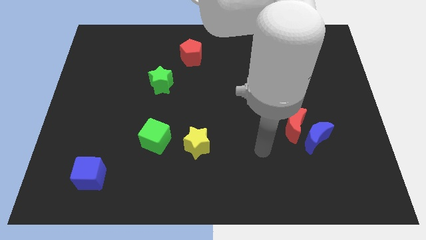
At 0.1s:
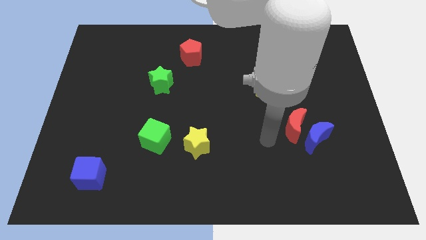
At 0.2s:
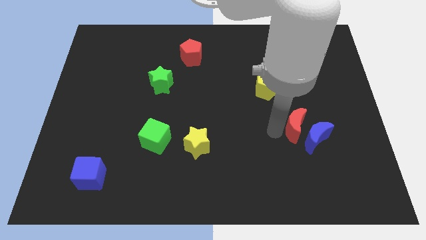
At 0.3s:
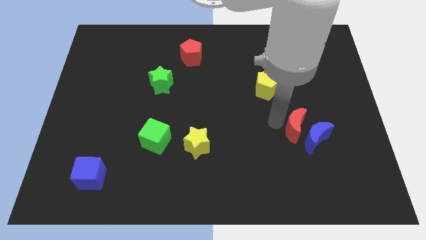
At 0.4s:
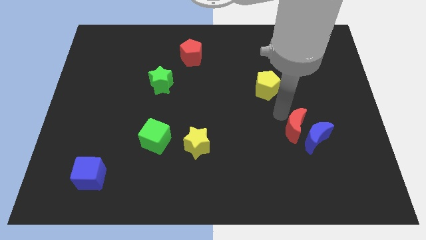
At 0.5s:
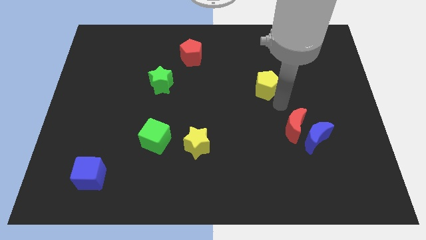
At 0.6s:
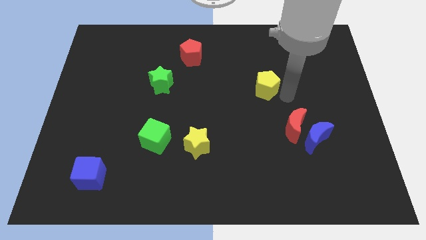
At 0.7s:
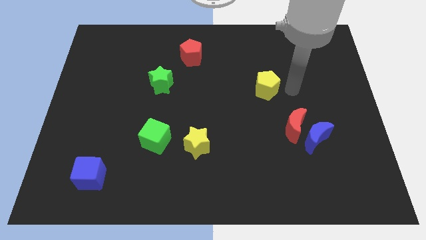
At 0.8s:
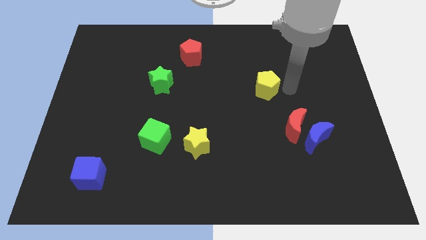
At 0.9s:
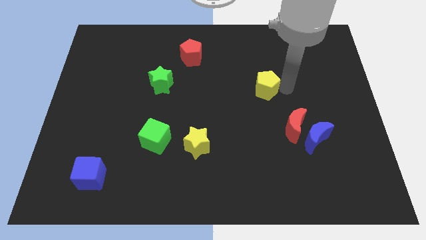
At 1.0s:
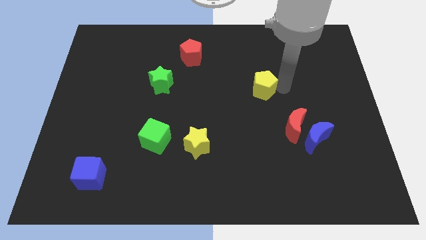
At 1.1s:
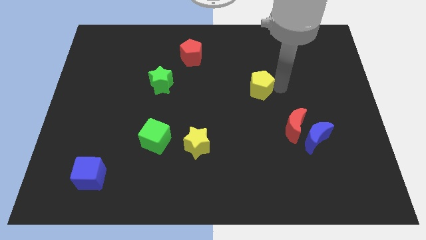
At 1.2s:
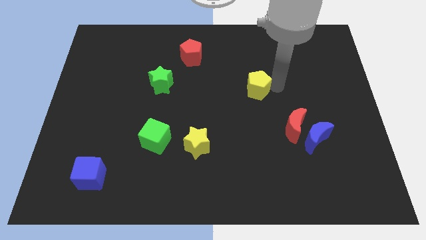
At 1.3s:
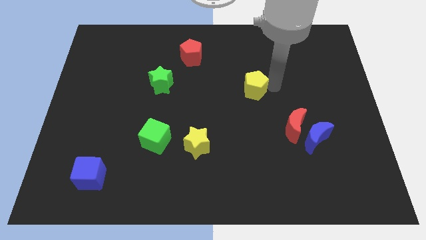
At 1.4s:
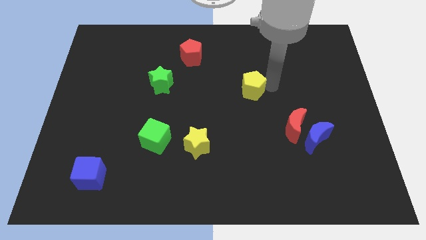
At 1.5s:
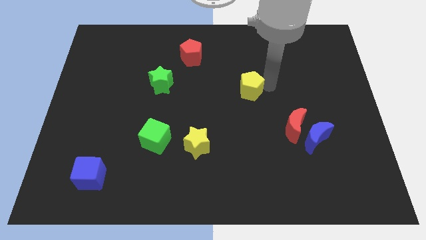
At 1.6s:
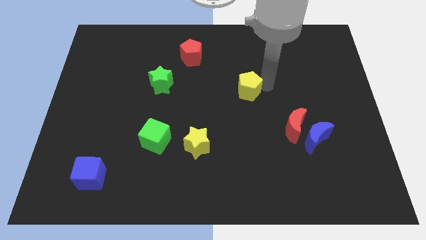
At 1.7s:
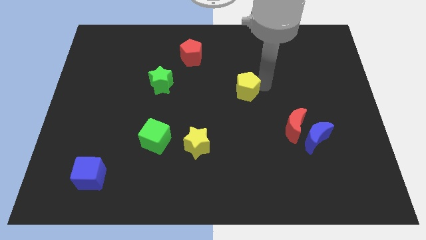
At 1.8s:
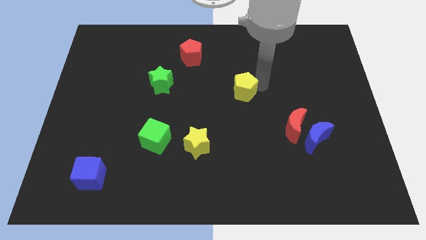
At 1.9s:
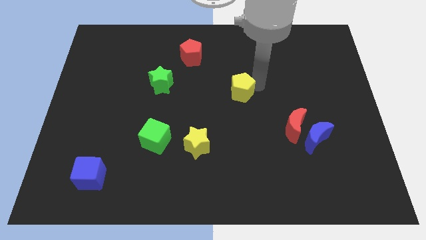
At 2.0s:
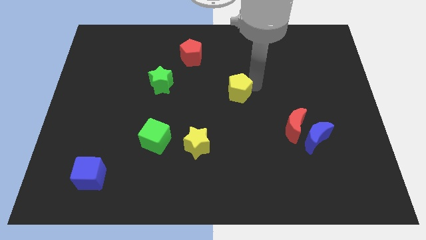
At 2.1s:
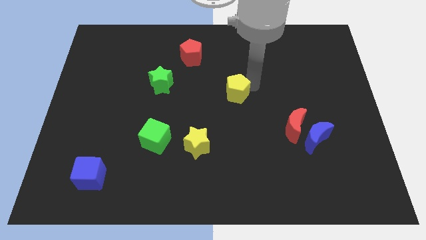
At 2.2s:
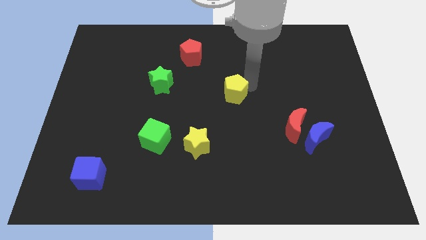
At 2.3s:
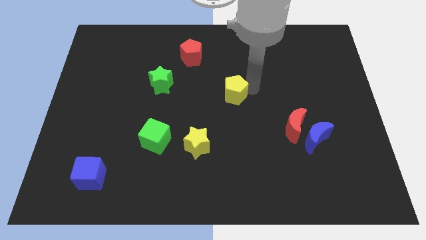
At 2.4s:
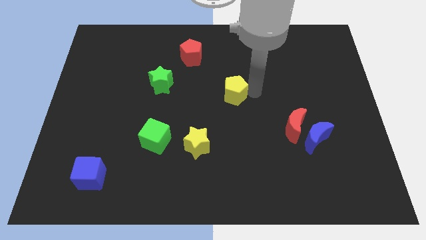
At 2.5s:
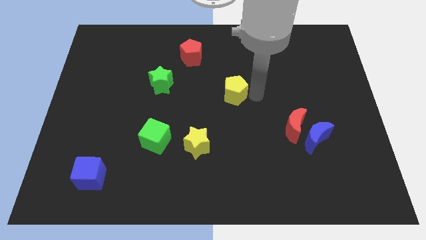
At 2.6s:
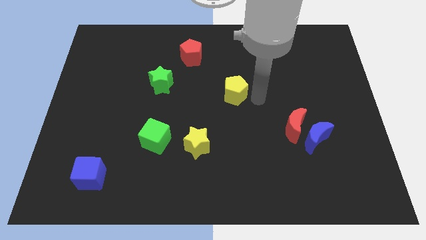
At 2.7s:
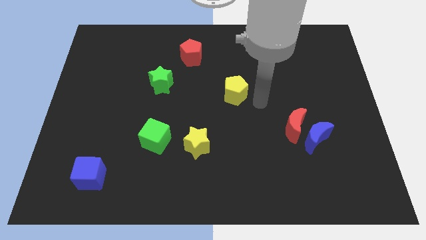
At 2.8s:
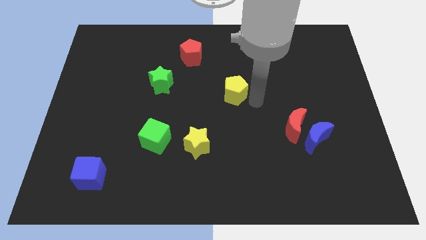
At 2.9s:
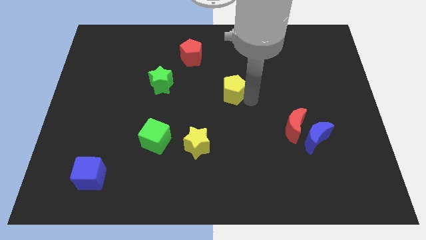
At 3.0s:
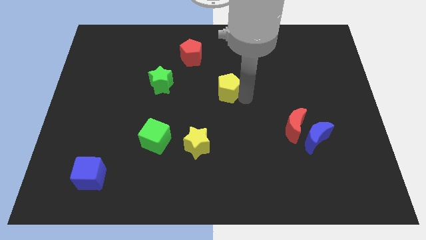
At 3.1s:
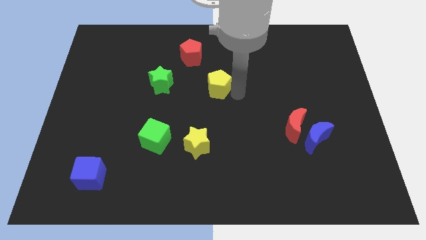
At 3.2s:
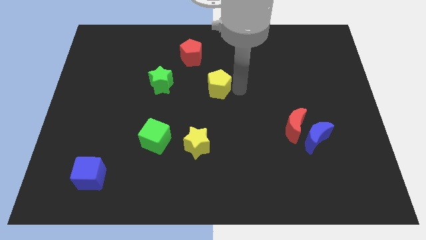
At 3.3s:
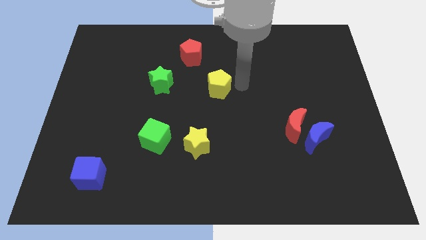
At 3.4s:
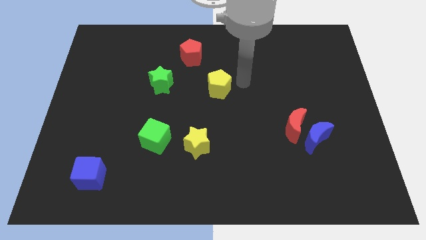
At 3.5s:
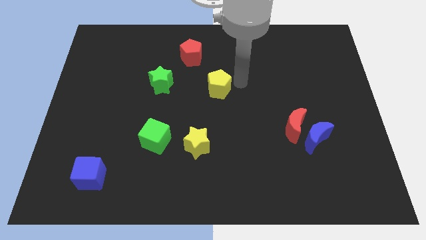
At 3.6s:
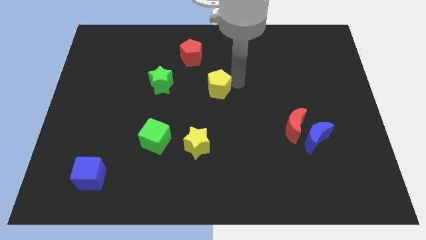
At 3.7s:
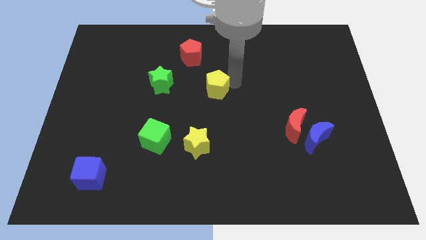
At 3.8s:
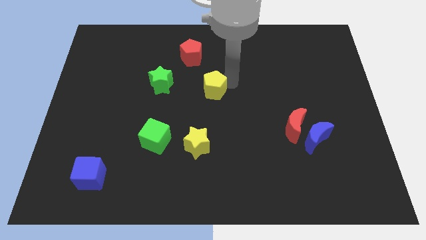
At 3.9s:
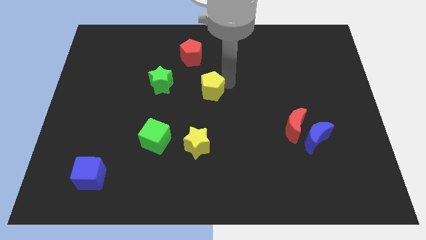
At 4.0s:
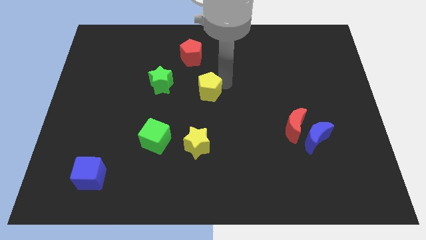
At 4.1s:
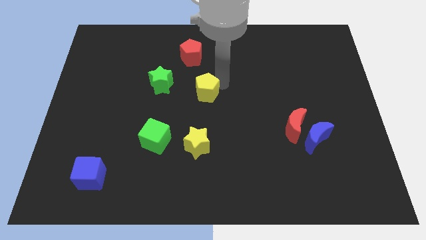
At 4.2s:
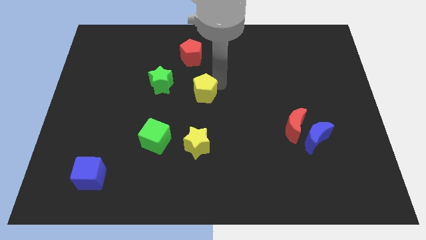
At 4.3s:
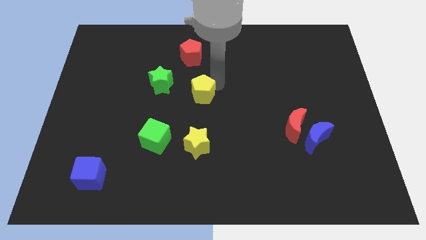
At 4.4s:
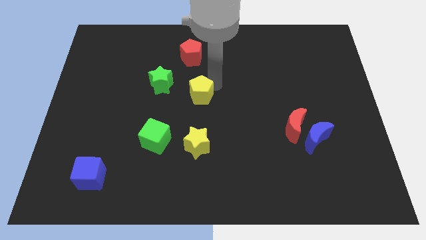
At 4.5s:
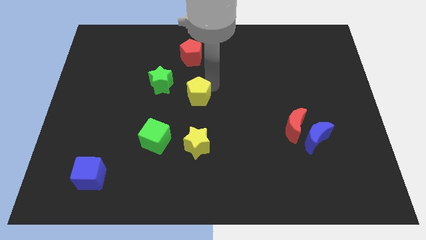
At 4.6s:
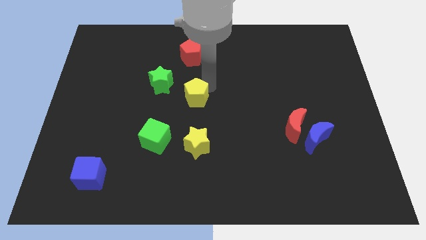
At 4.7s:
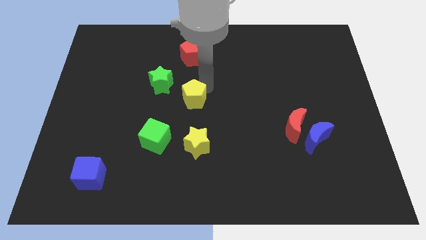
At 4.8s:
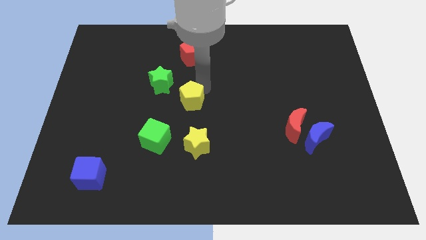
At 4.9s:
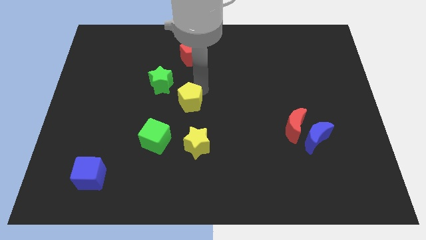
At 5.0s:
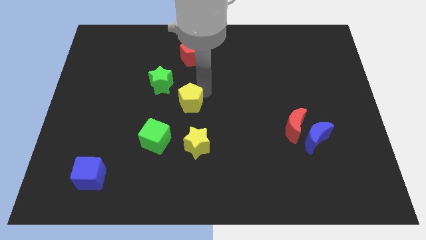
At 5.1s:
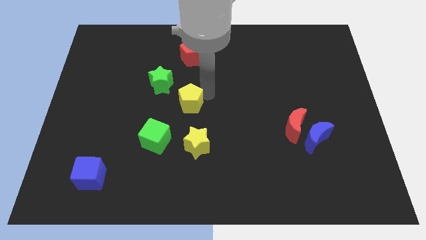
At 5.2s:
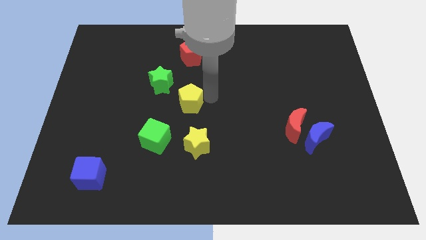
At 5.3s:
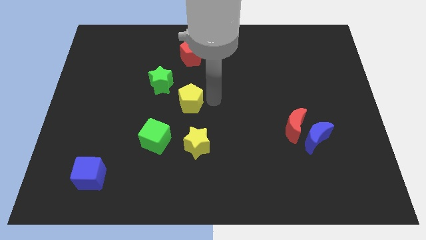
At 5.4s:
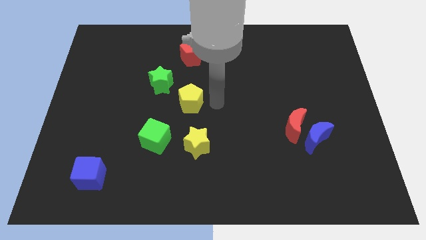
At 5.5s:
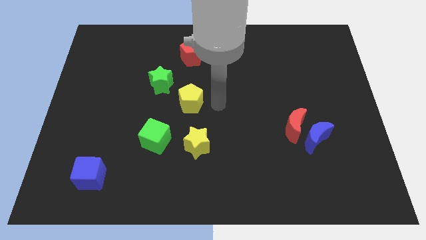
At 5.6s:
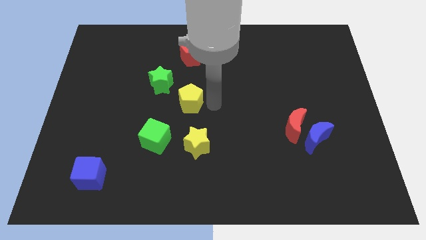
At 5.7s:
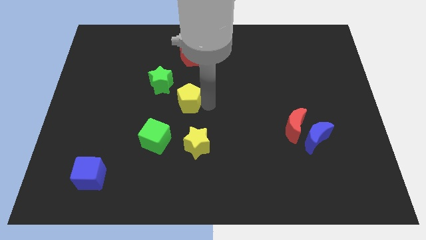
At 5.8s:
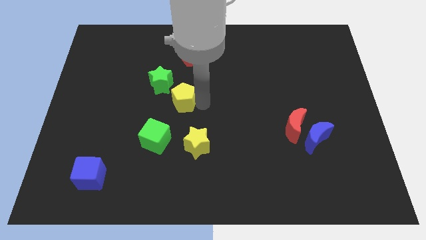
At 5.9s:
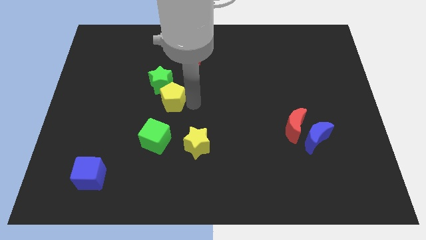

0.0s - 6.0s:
move the yellow pentagon left

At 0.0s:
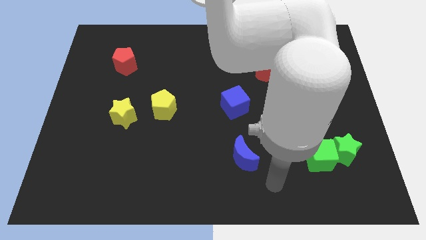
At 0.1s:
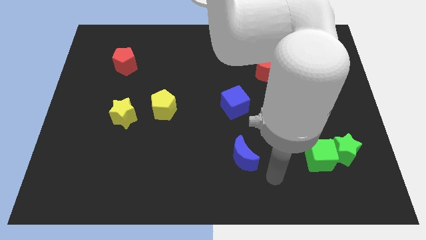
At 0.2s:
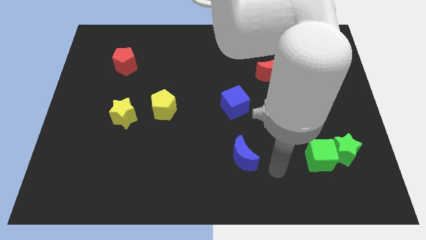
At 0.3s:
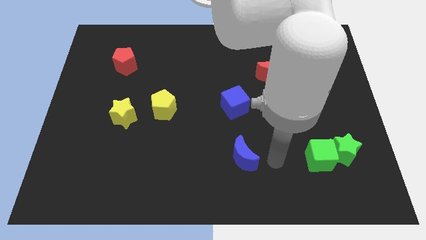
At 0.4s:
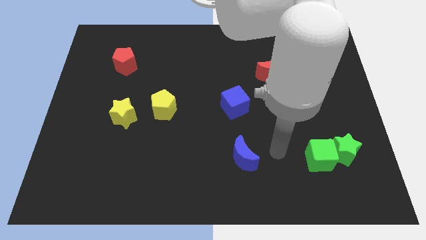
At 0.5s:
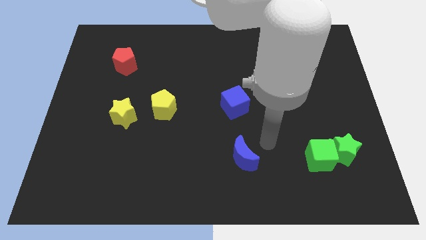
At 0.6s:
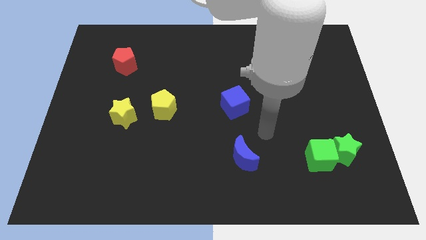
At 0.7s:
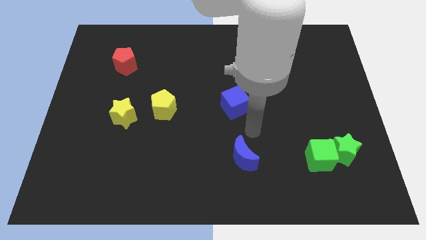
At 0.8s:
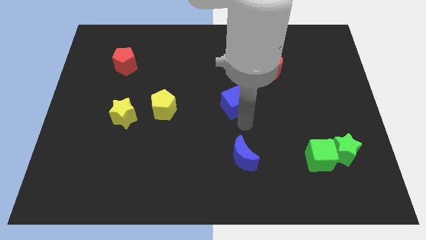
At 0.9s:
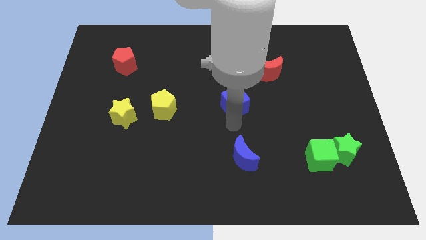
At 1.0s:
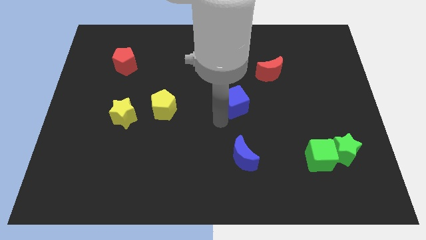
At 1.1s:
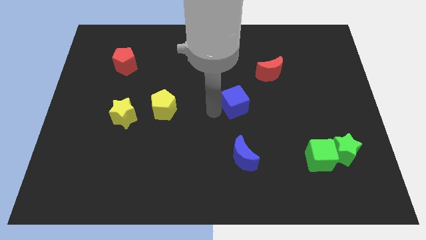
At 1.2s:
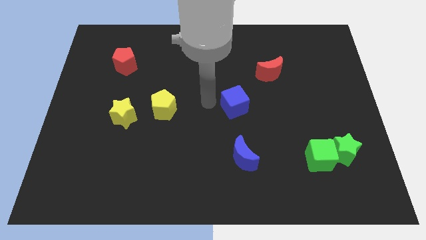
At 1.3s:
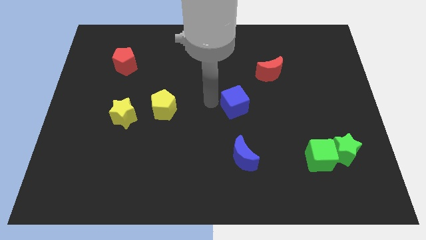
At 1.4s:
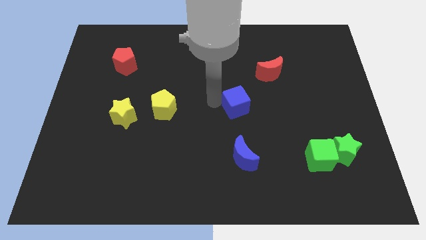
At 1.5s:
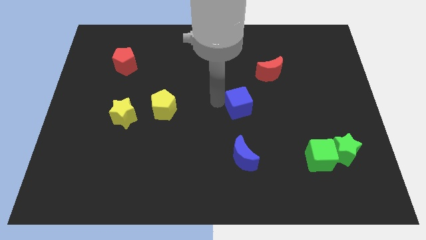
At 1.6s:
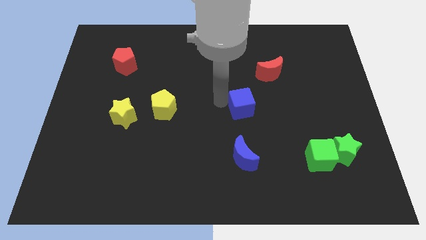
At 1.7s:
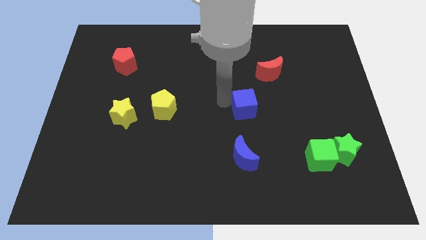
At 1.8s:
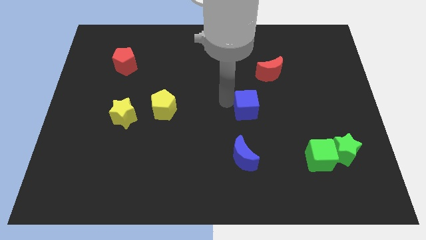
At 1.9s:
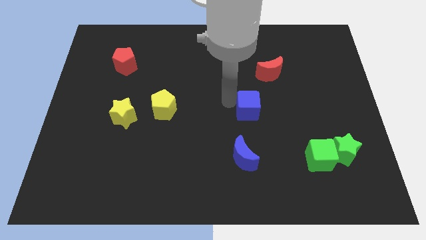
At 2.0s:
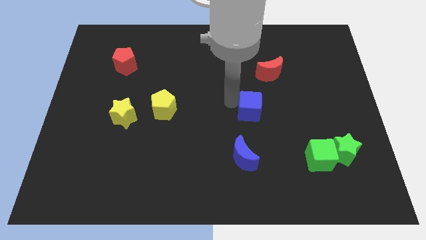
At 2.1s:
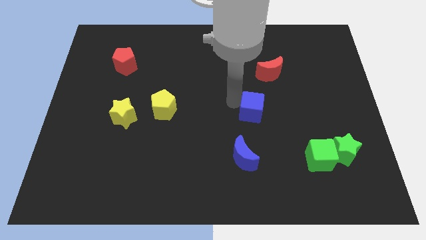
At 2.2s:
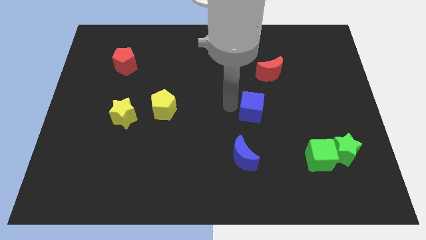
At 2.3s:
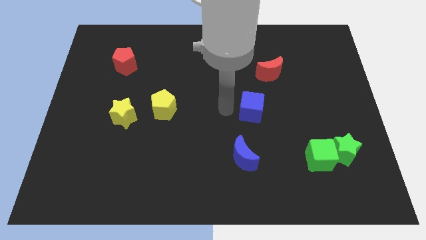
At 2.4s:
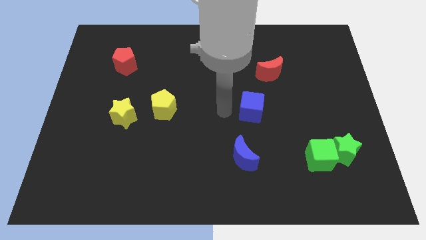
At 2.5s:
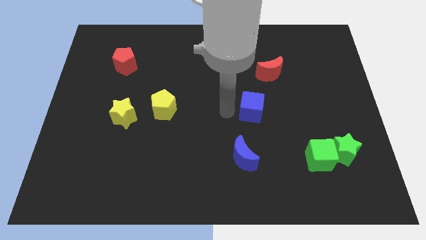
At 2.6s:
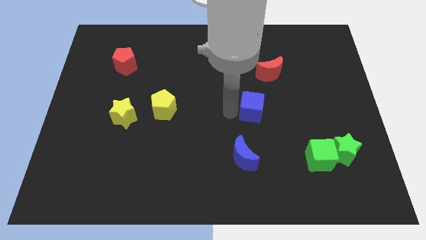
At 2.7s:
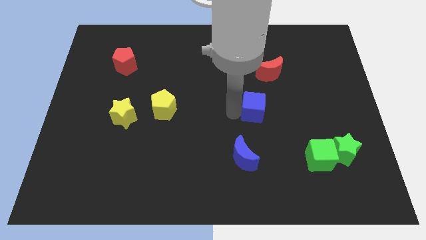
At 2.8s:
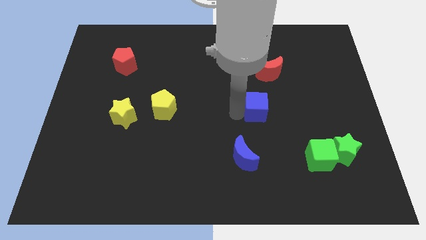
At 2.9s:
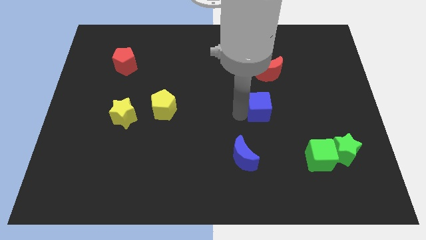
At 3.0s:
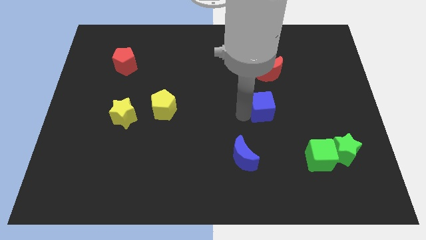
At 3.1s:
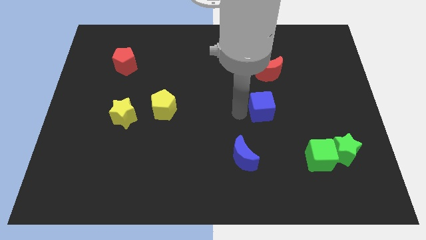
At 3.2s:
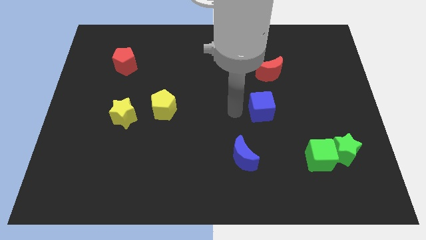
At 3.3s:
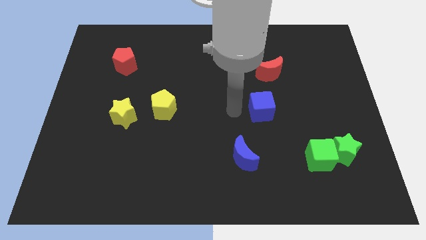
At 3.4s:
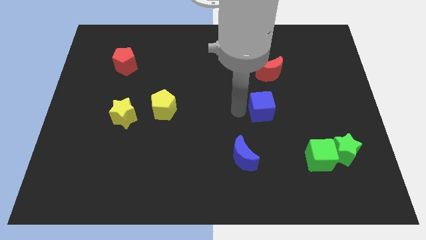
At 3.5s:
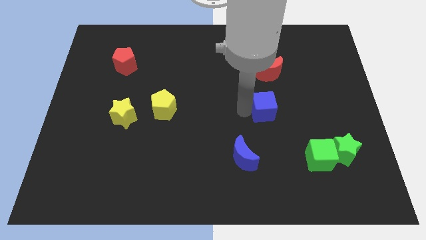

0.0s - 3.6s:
move the blue cube a little bit right
